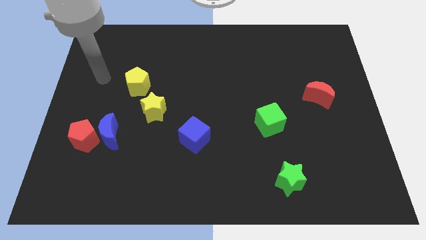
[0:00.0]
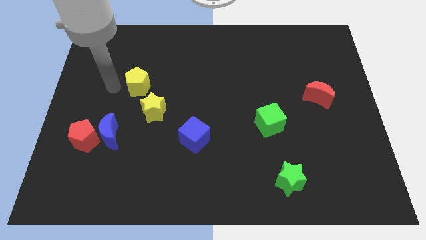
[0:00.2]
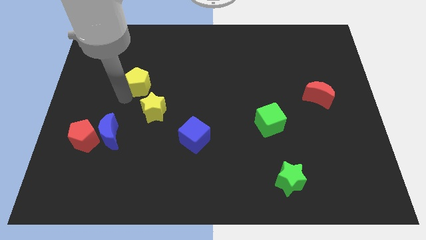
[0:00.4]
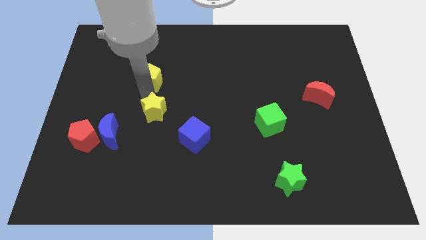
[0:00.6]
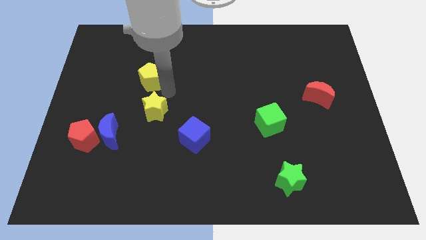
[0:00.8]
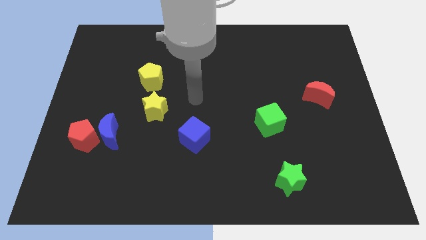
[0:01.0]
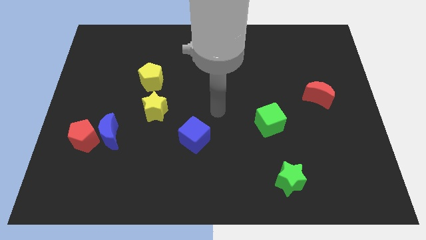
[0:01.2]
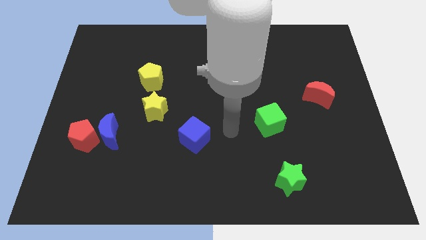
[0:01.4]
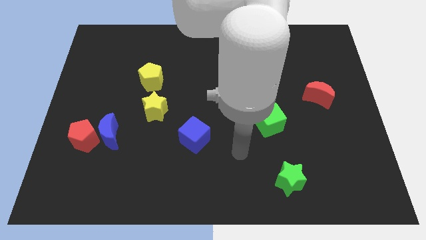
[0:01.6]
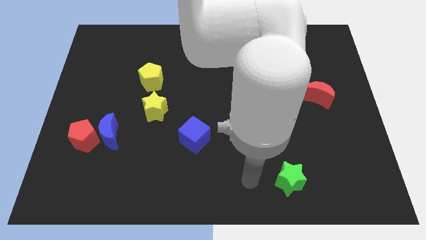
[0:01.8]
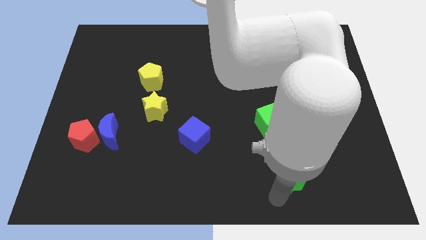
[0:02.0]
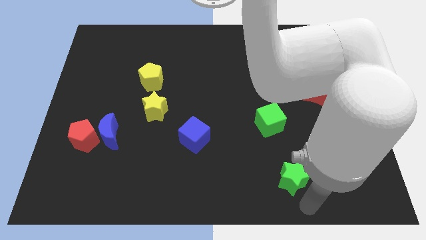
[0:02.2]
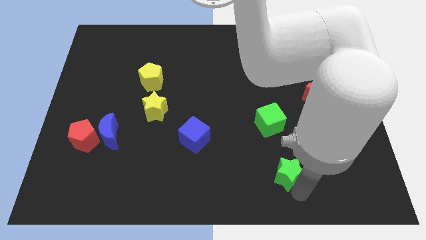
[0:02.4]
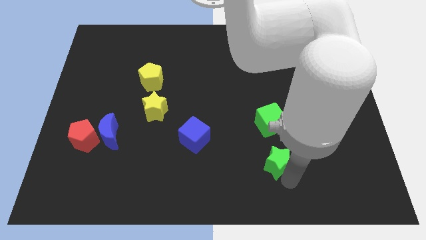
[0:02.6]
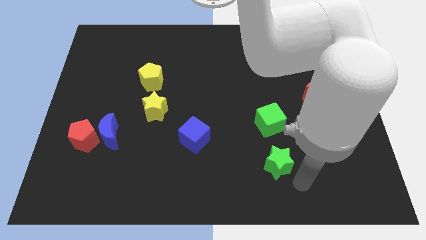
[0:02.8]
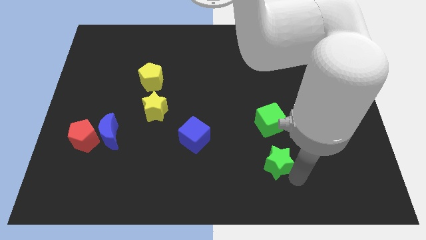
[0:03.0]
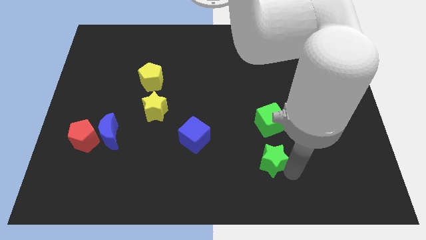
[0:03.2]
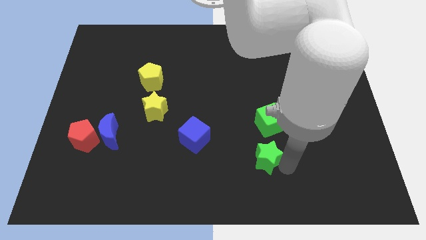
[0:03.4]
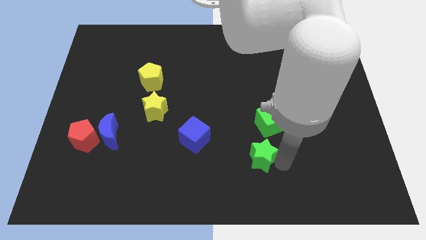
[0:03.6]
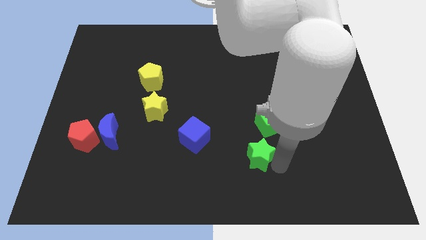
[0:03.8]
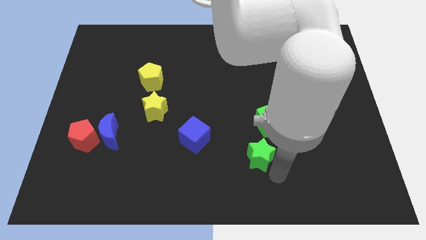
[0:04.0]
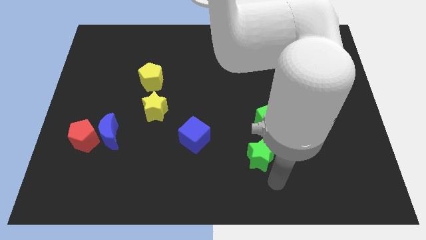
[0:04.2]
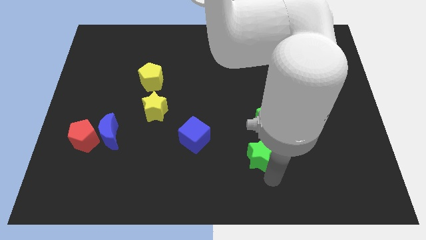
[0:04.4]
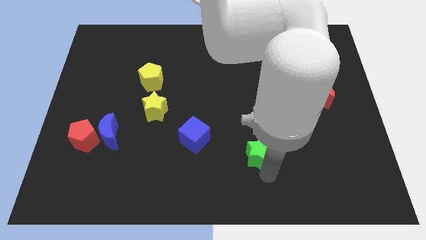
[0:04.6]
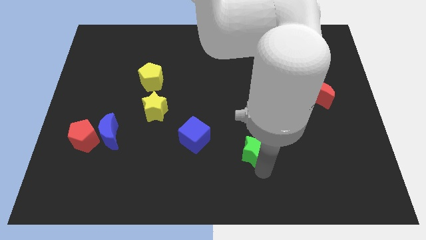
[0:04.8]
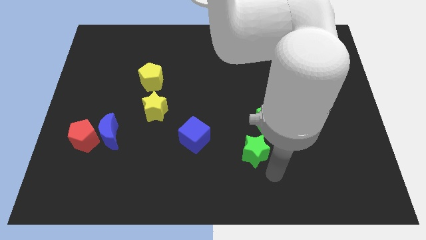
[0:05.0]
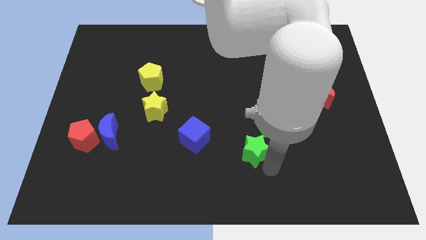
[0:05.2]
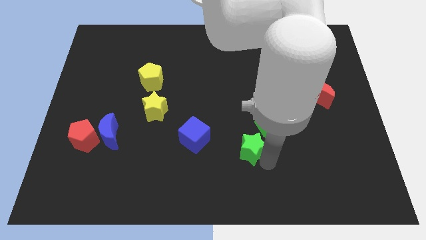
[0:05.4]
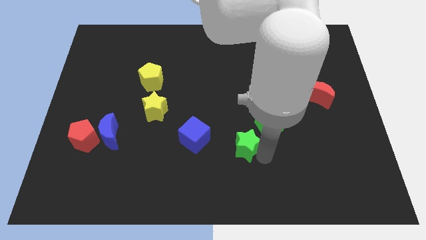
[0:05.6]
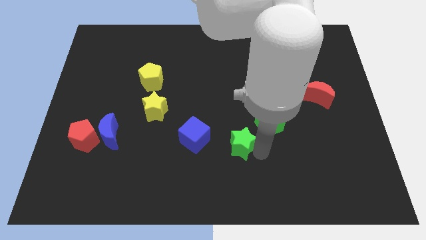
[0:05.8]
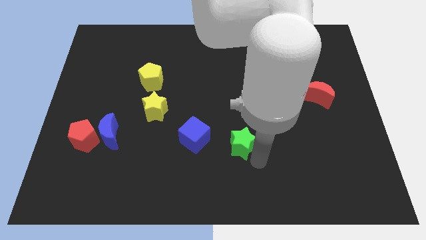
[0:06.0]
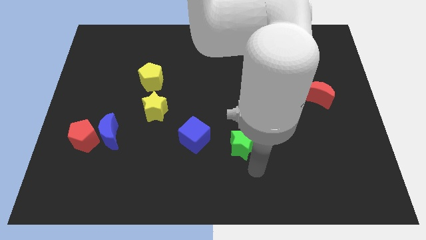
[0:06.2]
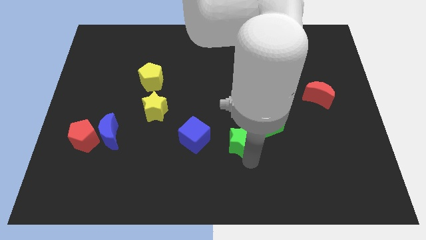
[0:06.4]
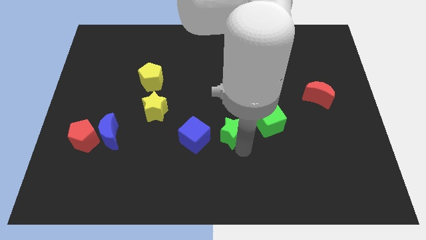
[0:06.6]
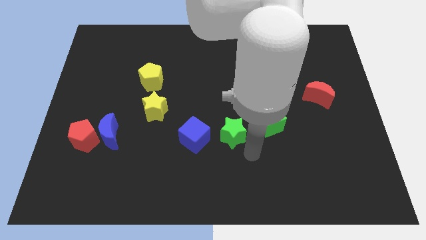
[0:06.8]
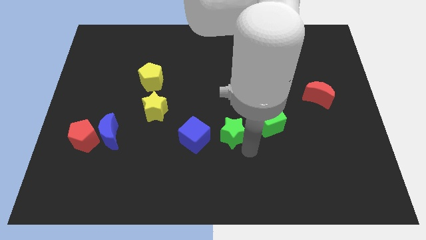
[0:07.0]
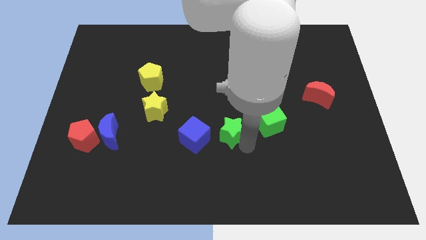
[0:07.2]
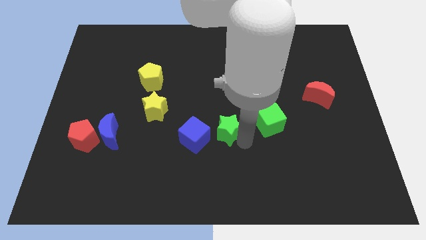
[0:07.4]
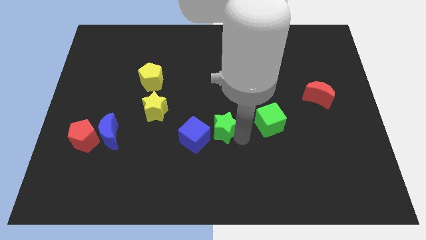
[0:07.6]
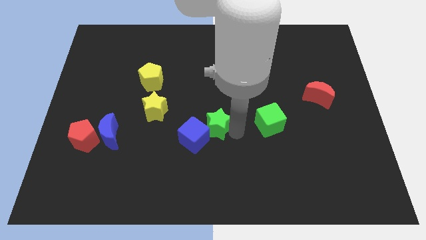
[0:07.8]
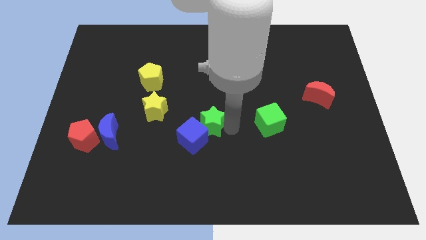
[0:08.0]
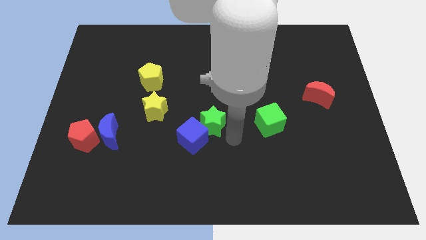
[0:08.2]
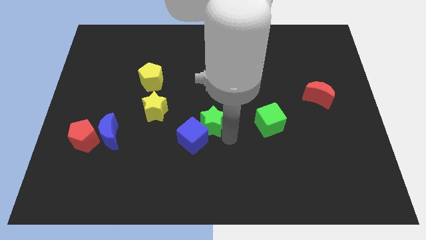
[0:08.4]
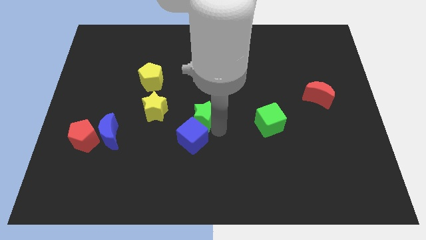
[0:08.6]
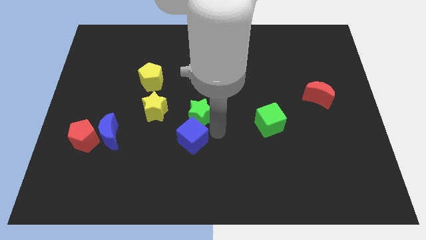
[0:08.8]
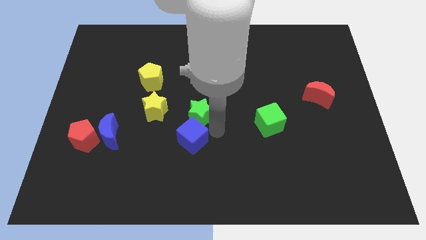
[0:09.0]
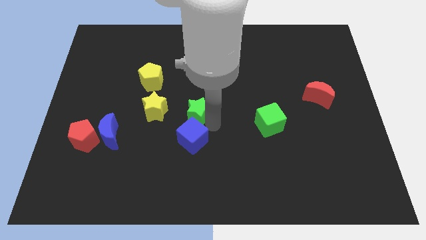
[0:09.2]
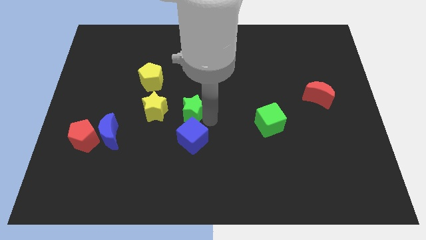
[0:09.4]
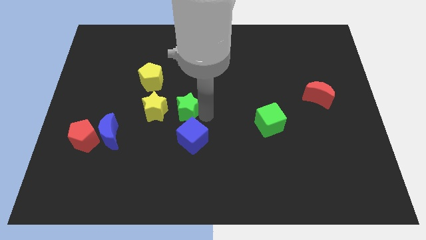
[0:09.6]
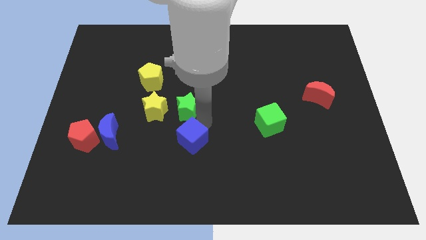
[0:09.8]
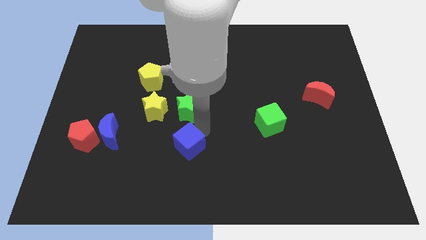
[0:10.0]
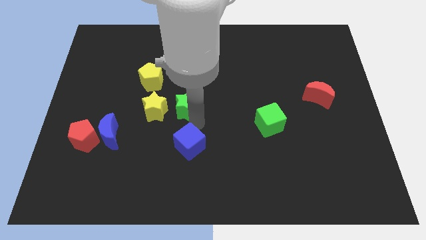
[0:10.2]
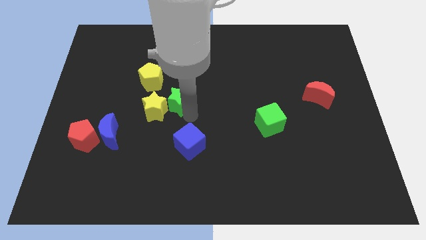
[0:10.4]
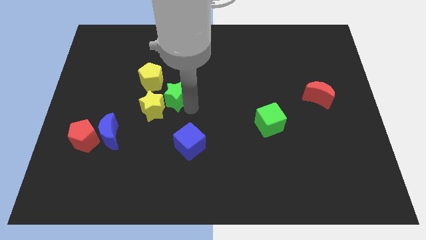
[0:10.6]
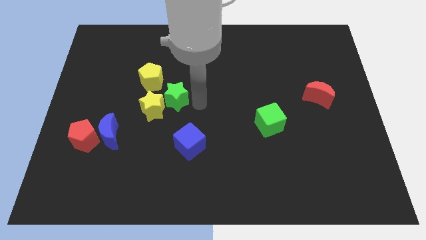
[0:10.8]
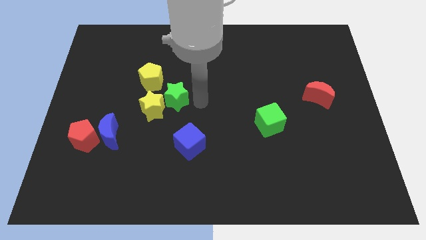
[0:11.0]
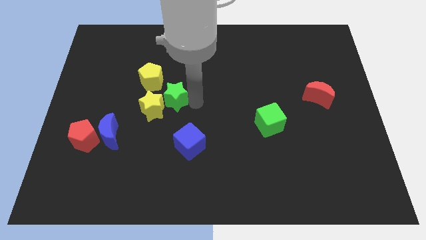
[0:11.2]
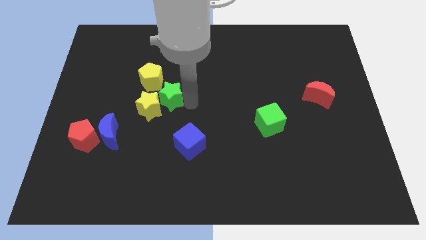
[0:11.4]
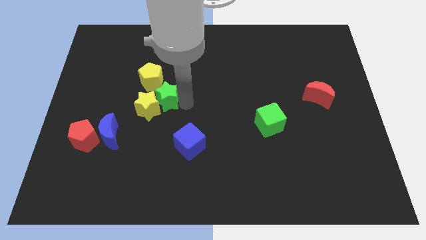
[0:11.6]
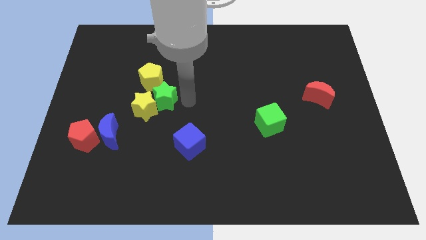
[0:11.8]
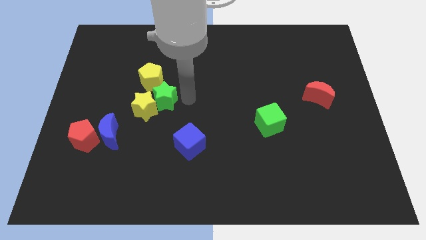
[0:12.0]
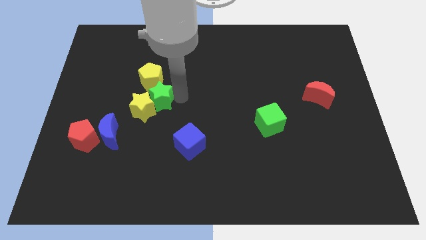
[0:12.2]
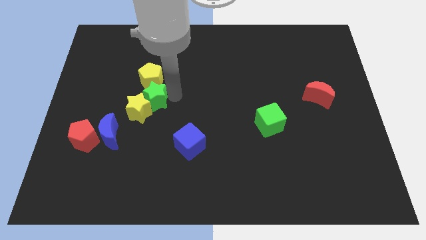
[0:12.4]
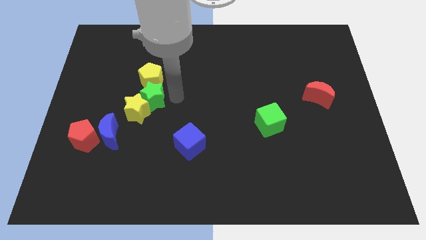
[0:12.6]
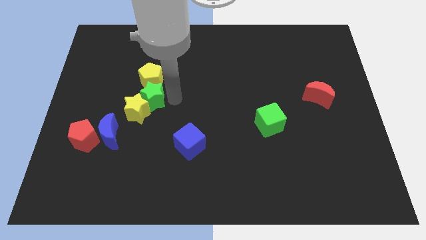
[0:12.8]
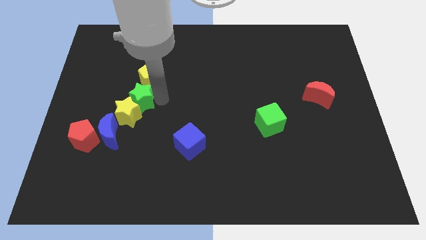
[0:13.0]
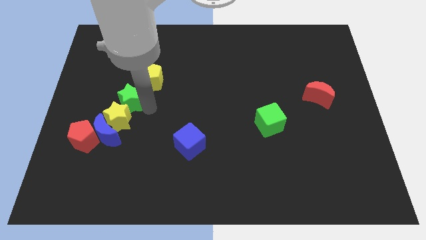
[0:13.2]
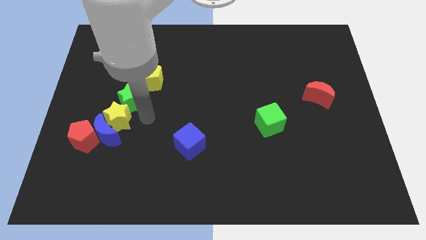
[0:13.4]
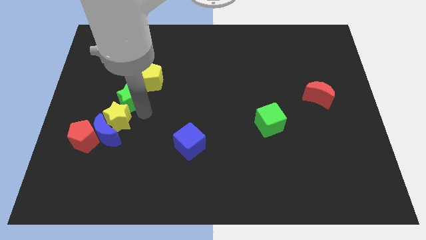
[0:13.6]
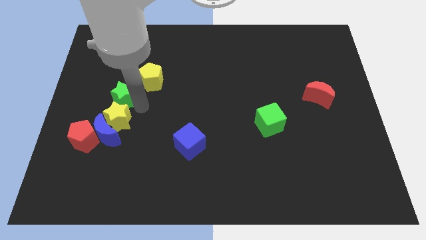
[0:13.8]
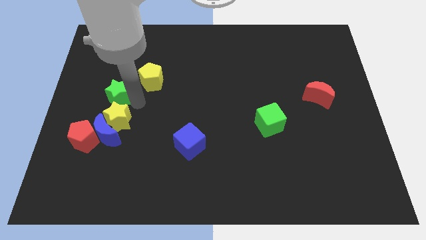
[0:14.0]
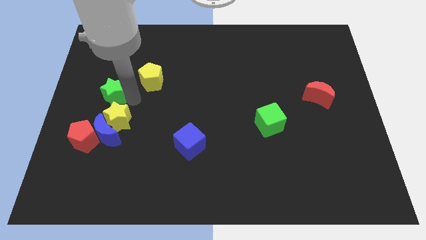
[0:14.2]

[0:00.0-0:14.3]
put the green star to the left side of the yellow pentagon
